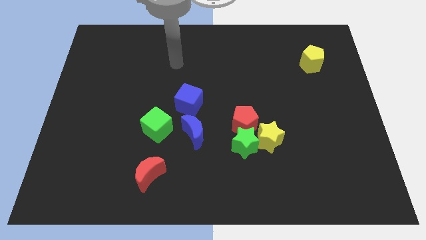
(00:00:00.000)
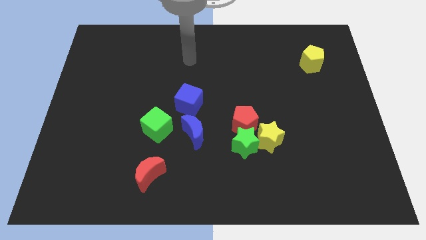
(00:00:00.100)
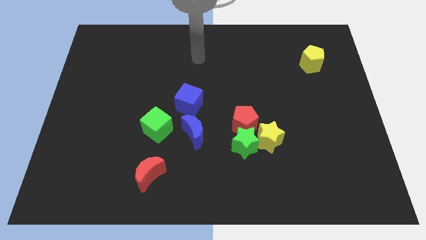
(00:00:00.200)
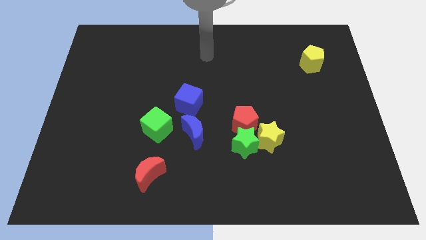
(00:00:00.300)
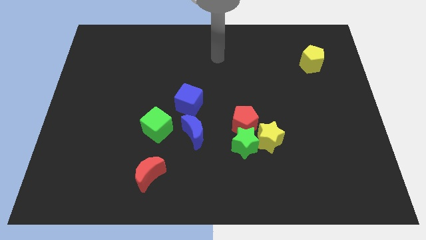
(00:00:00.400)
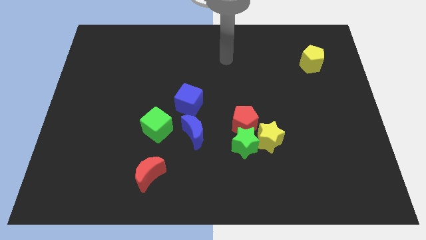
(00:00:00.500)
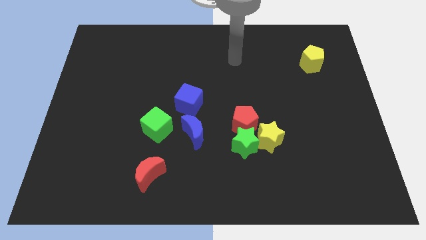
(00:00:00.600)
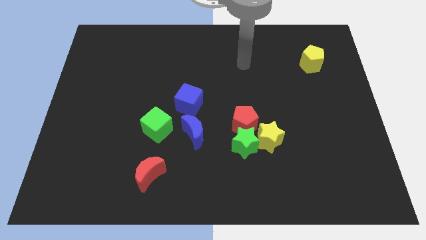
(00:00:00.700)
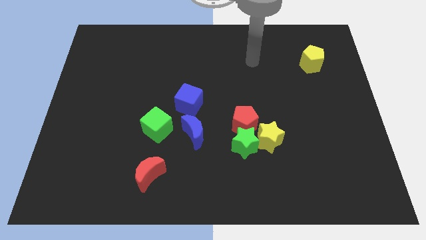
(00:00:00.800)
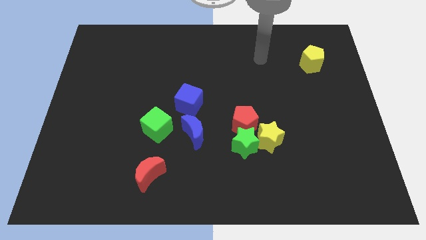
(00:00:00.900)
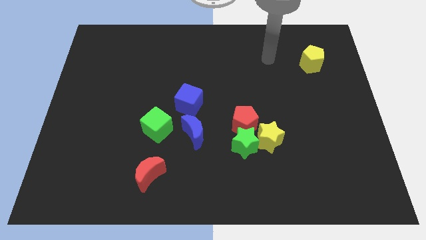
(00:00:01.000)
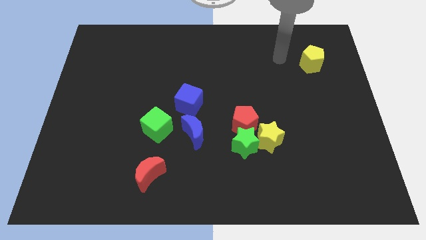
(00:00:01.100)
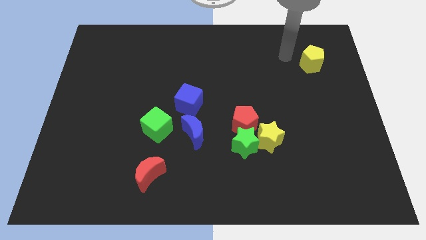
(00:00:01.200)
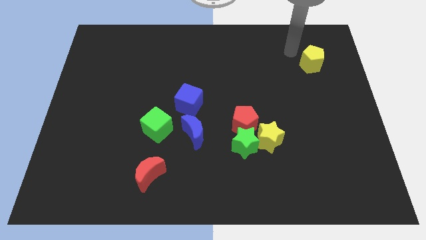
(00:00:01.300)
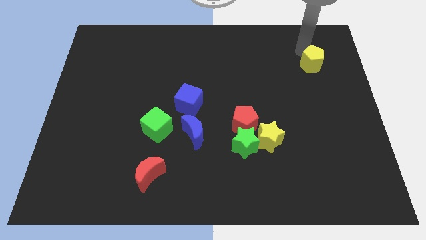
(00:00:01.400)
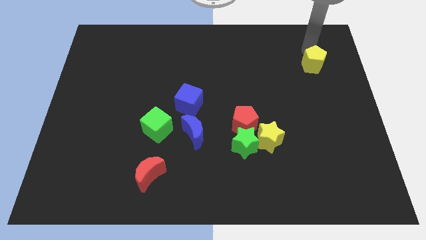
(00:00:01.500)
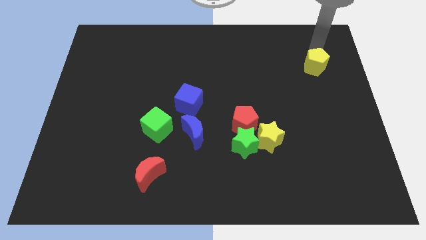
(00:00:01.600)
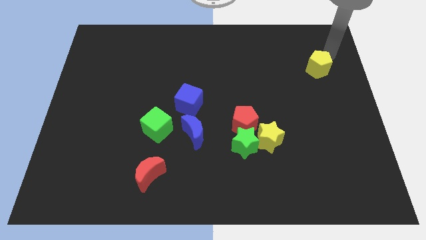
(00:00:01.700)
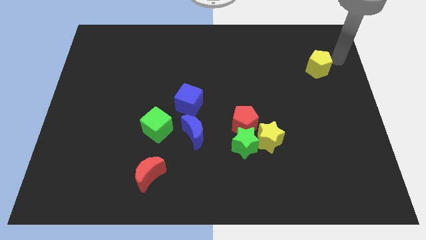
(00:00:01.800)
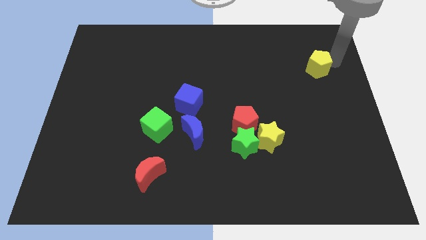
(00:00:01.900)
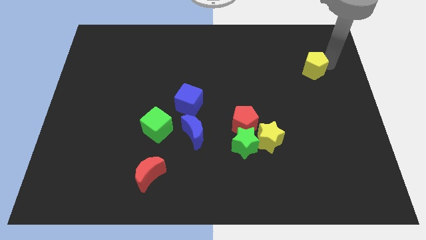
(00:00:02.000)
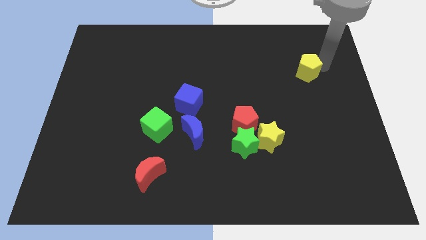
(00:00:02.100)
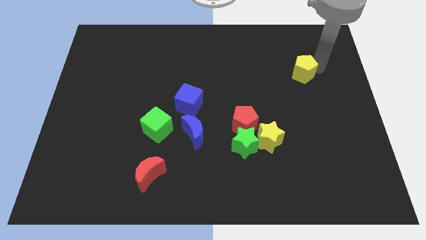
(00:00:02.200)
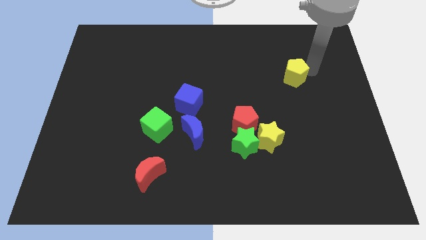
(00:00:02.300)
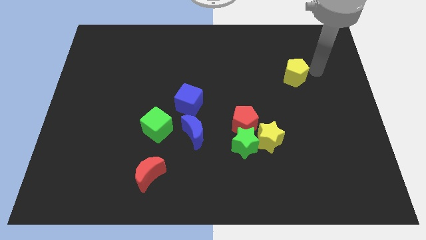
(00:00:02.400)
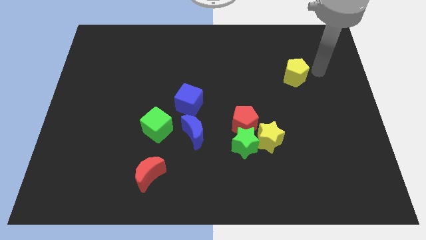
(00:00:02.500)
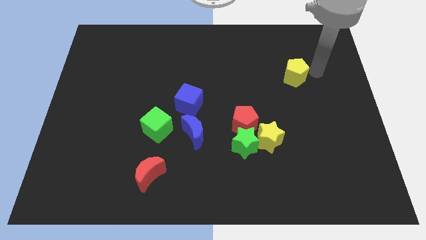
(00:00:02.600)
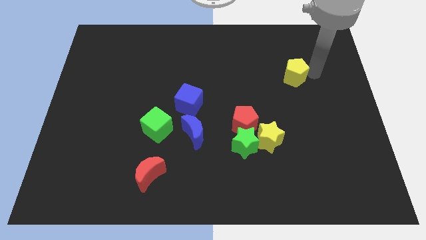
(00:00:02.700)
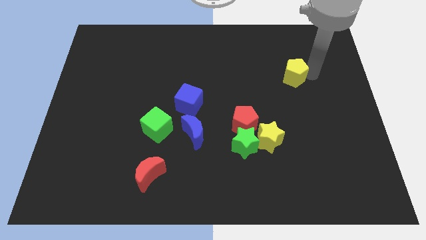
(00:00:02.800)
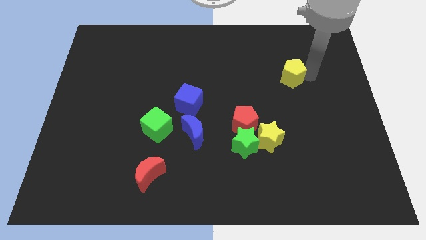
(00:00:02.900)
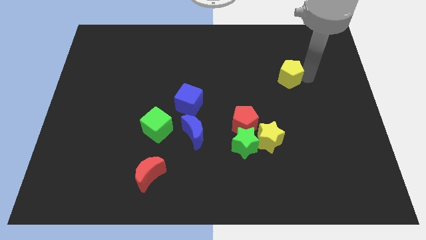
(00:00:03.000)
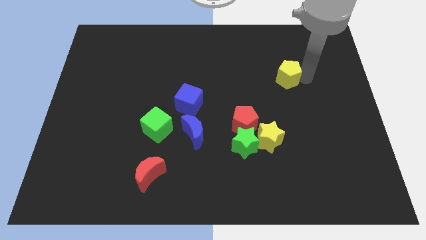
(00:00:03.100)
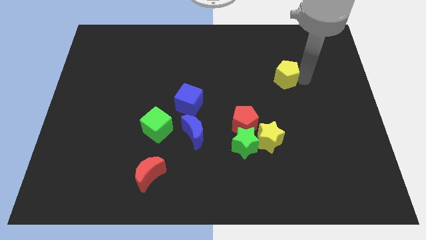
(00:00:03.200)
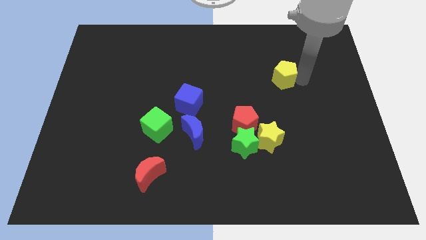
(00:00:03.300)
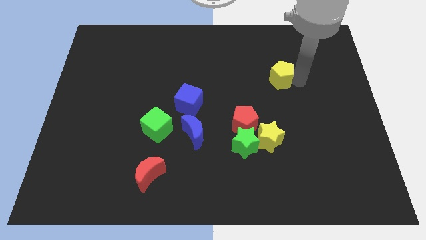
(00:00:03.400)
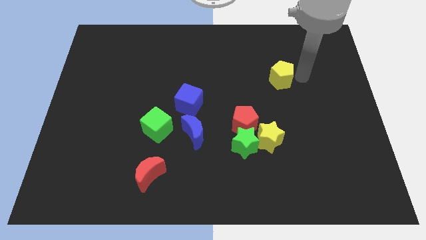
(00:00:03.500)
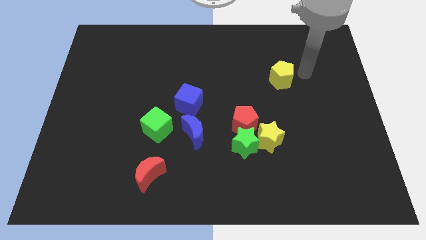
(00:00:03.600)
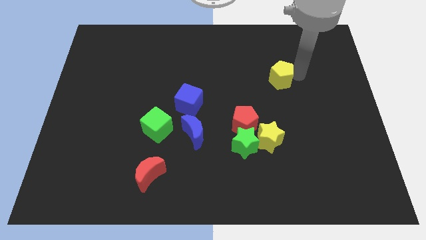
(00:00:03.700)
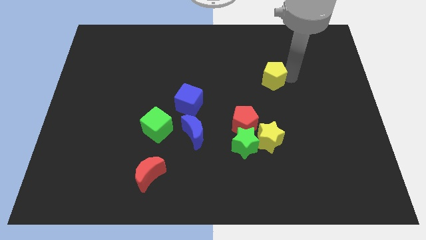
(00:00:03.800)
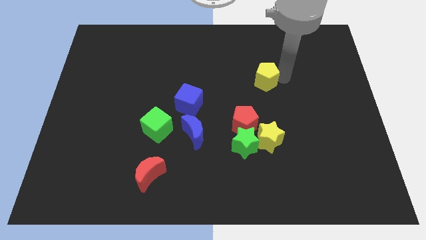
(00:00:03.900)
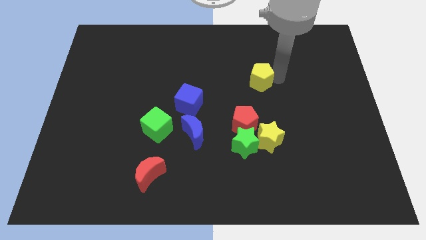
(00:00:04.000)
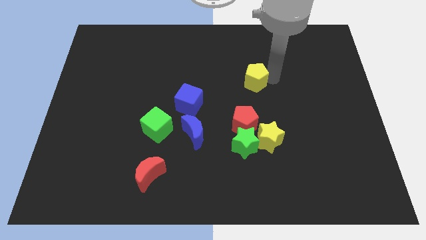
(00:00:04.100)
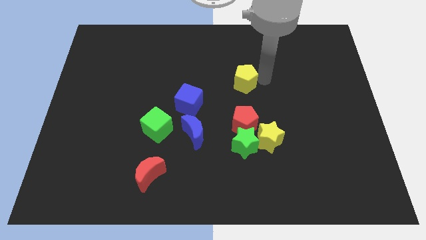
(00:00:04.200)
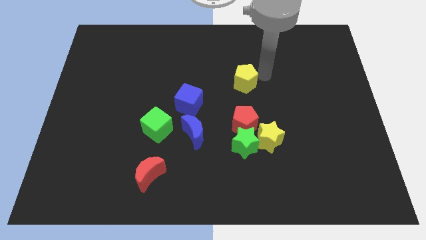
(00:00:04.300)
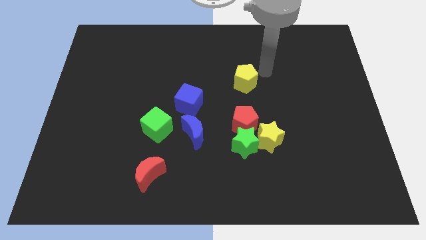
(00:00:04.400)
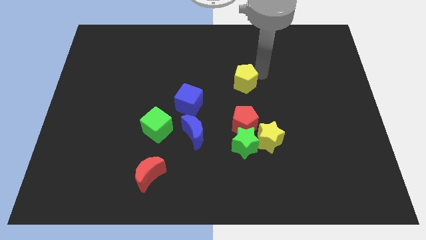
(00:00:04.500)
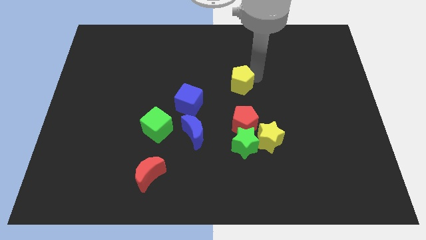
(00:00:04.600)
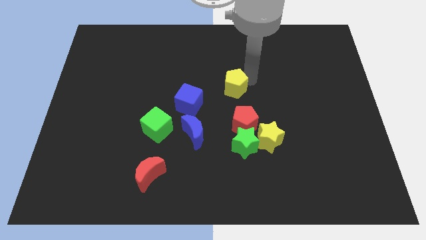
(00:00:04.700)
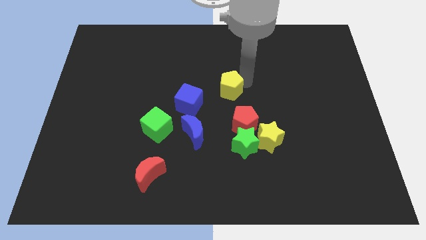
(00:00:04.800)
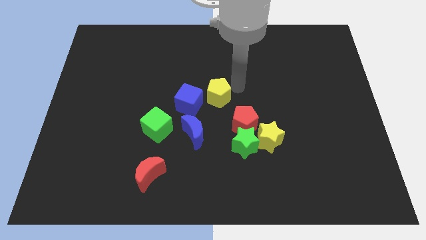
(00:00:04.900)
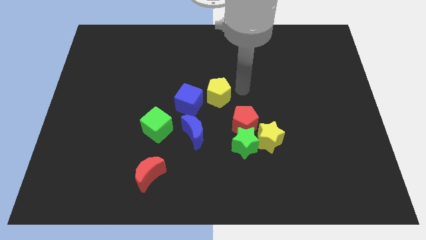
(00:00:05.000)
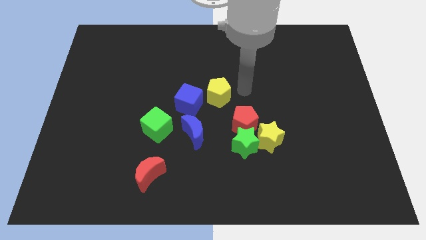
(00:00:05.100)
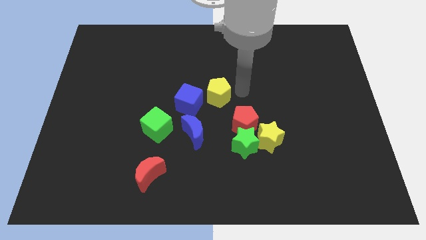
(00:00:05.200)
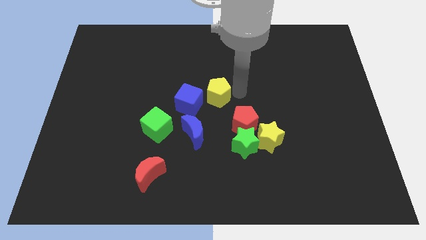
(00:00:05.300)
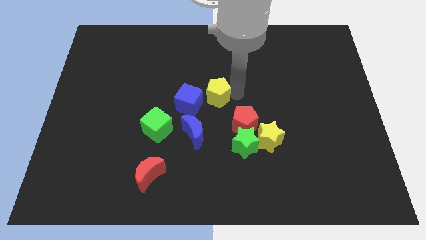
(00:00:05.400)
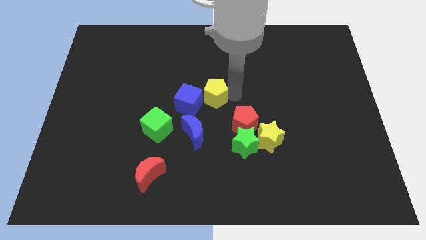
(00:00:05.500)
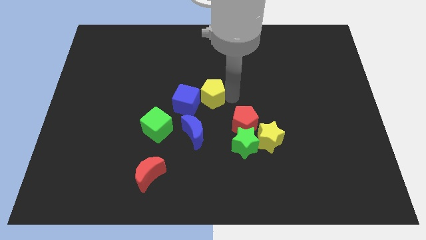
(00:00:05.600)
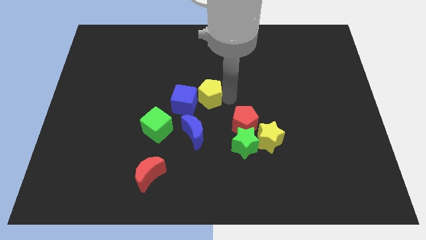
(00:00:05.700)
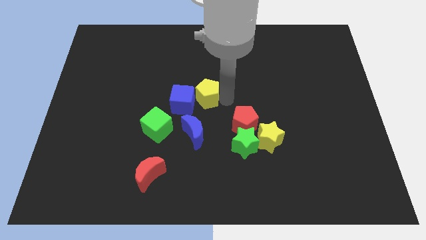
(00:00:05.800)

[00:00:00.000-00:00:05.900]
slide the yellow pentagon next to the blue cube

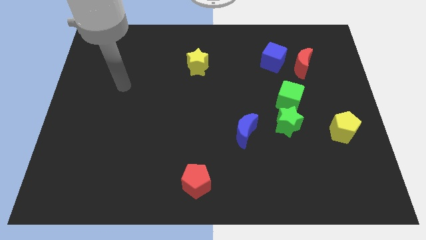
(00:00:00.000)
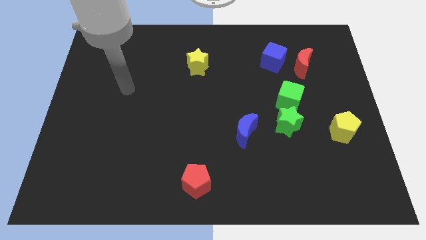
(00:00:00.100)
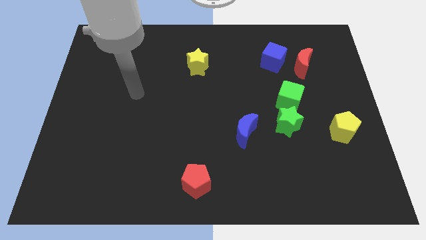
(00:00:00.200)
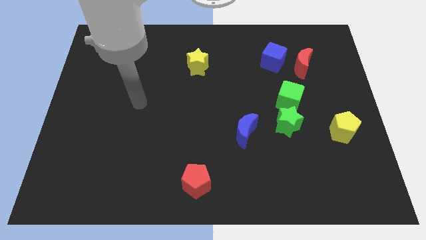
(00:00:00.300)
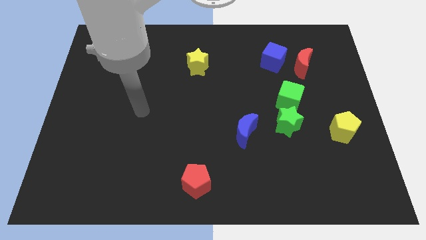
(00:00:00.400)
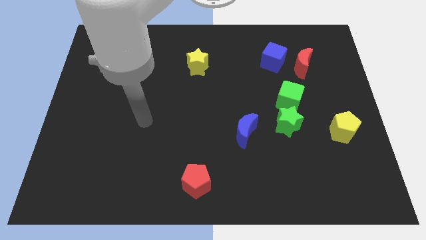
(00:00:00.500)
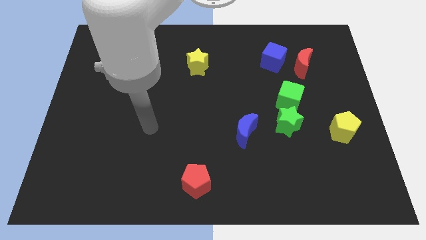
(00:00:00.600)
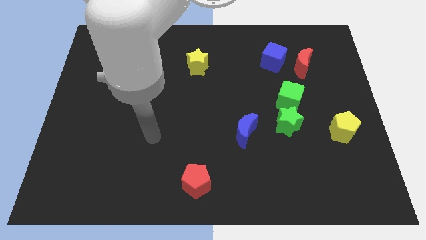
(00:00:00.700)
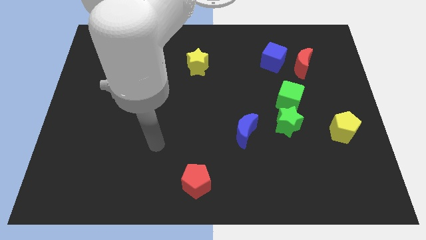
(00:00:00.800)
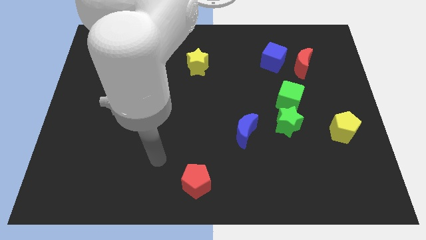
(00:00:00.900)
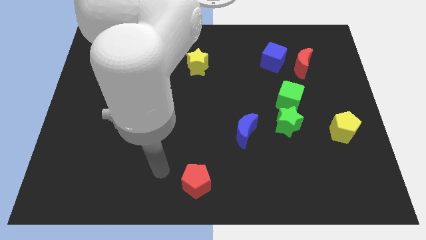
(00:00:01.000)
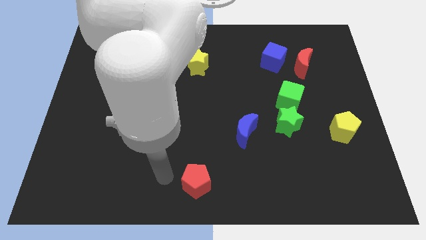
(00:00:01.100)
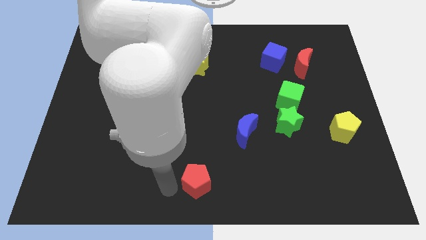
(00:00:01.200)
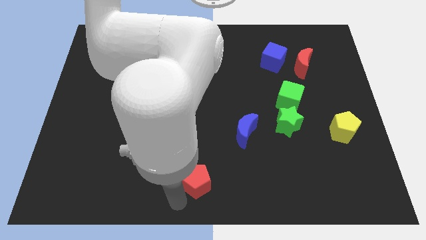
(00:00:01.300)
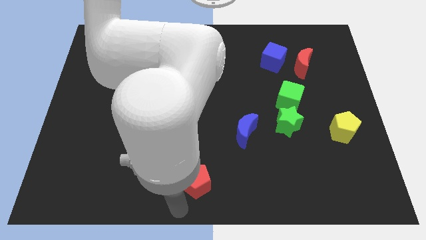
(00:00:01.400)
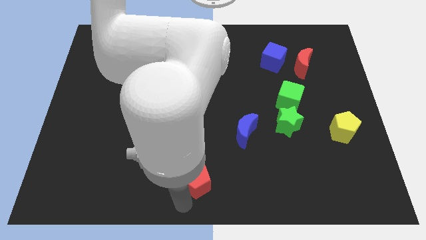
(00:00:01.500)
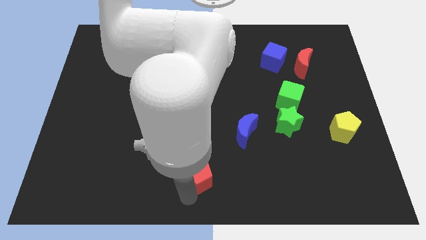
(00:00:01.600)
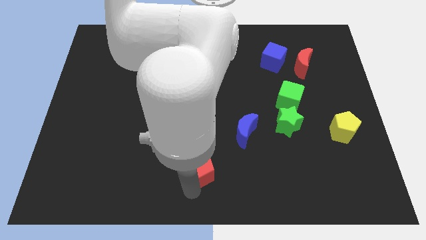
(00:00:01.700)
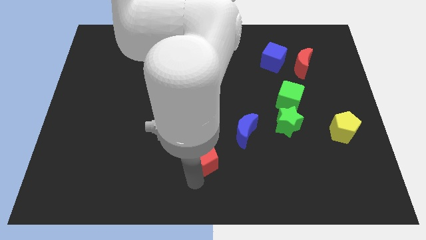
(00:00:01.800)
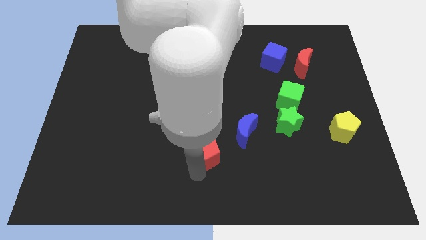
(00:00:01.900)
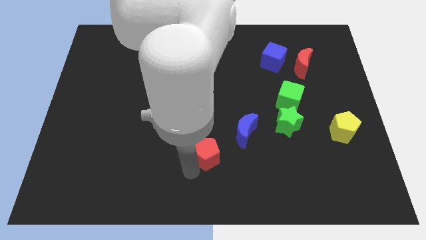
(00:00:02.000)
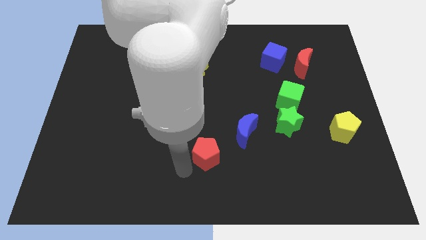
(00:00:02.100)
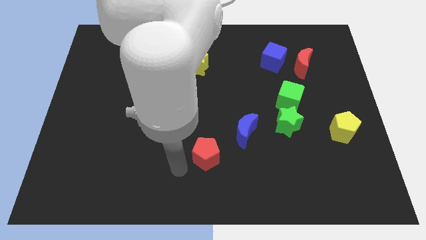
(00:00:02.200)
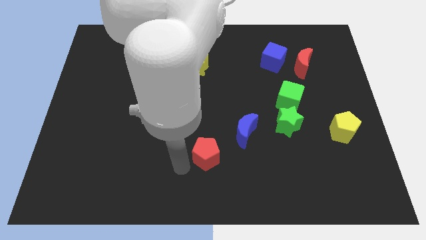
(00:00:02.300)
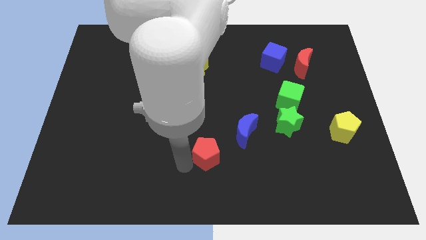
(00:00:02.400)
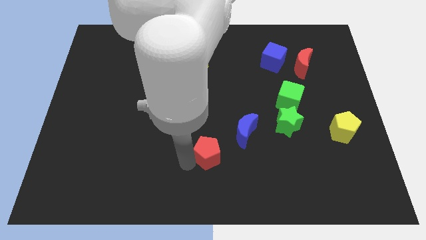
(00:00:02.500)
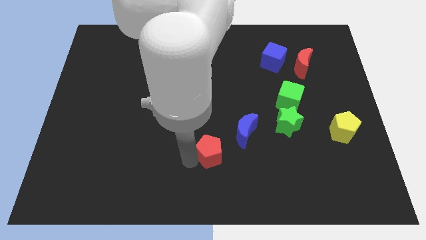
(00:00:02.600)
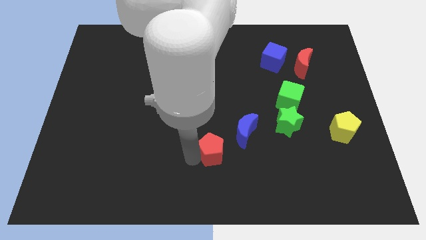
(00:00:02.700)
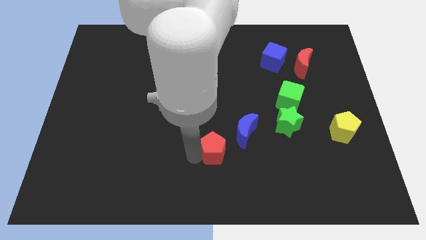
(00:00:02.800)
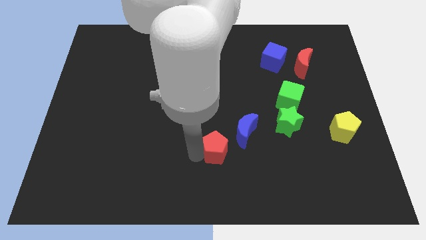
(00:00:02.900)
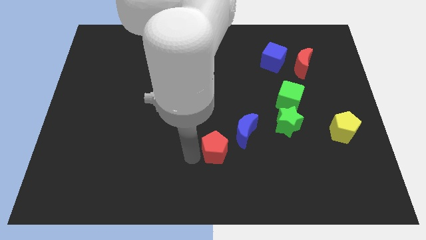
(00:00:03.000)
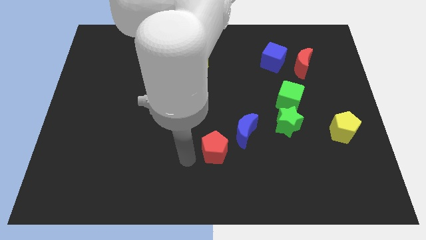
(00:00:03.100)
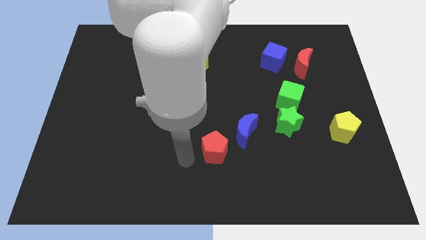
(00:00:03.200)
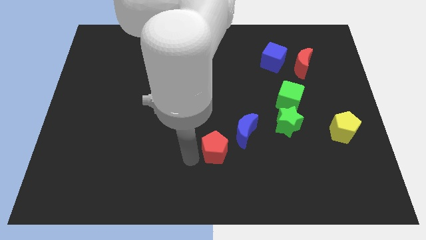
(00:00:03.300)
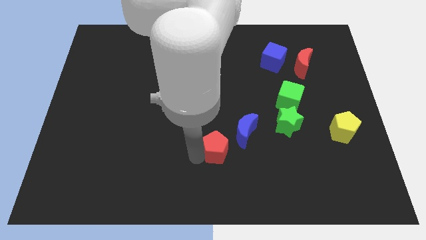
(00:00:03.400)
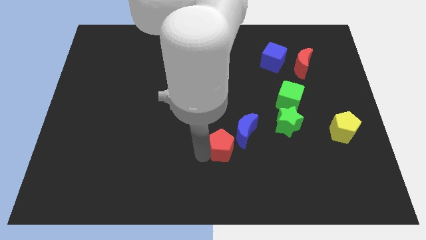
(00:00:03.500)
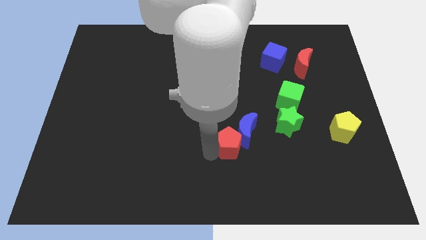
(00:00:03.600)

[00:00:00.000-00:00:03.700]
move the red pentagon close to the blue moon
